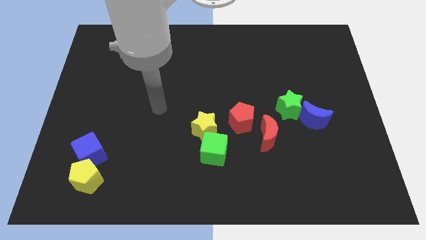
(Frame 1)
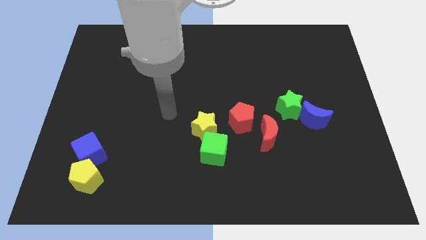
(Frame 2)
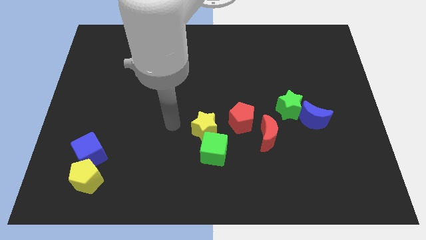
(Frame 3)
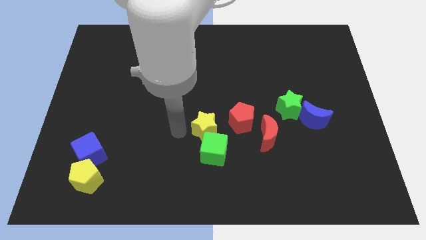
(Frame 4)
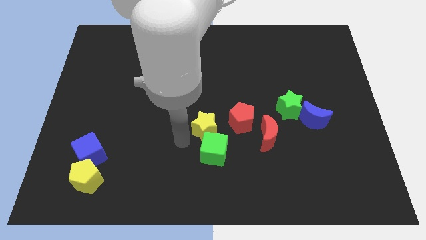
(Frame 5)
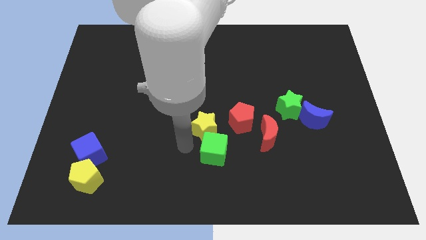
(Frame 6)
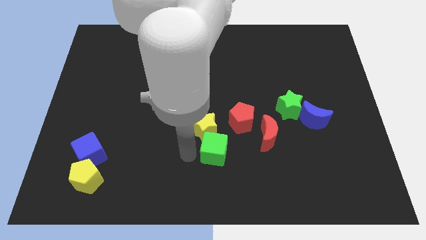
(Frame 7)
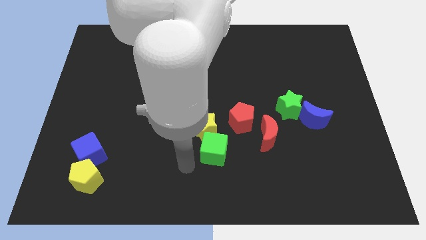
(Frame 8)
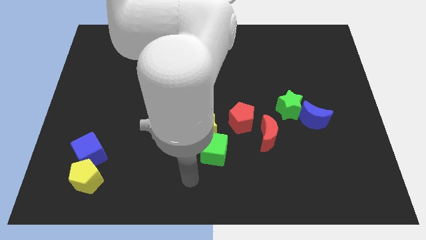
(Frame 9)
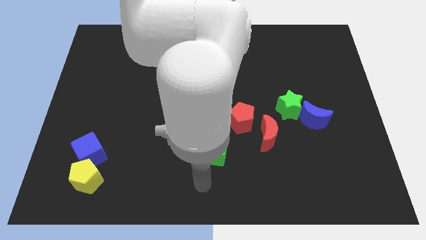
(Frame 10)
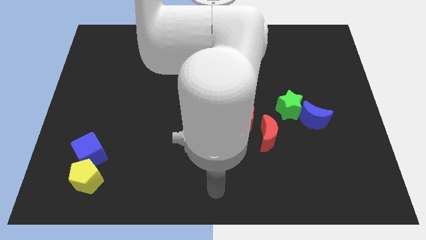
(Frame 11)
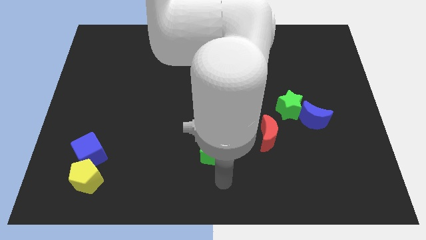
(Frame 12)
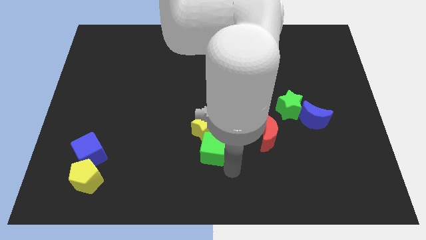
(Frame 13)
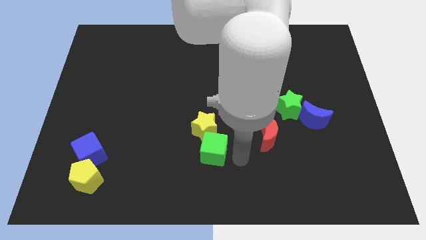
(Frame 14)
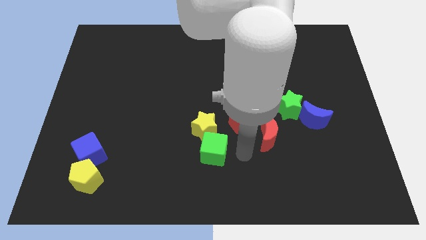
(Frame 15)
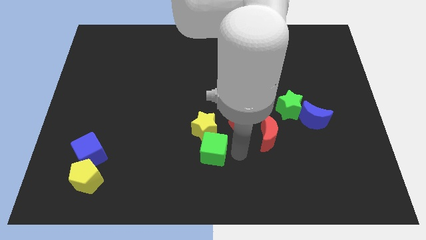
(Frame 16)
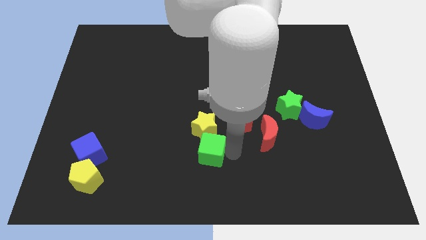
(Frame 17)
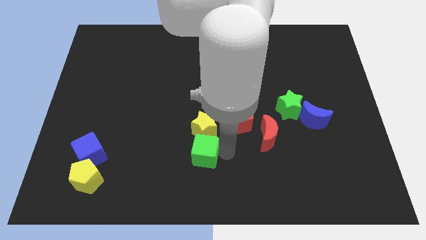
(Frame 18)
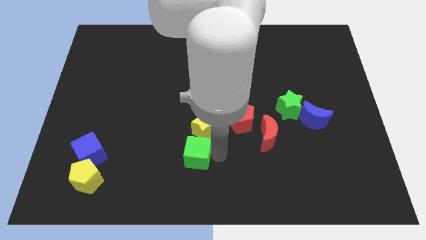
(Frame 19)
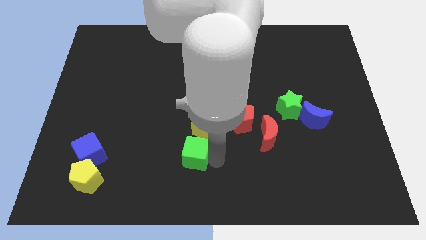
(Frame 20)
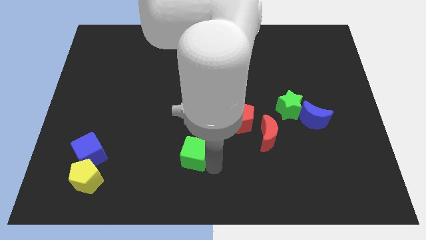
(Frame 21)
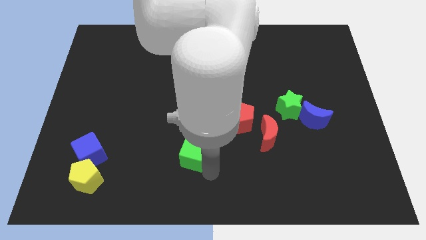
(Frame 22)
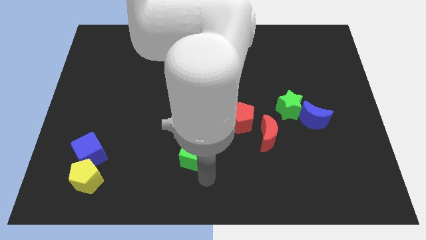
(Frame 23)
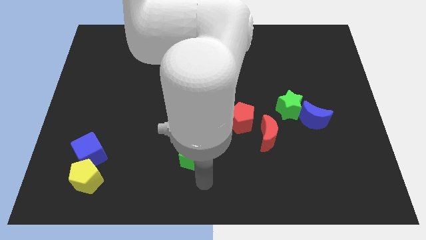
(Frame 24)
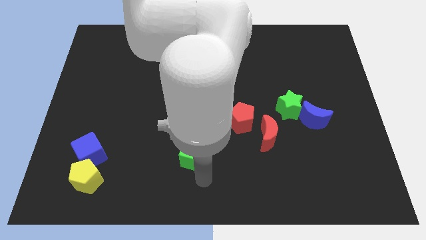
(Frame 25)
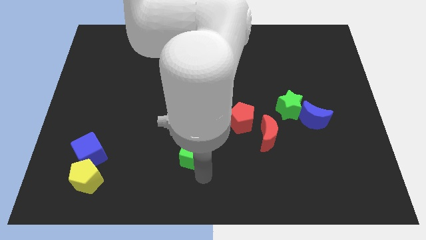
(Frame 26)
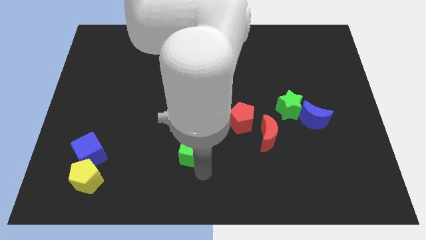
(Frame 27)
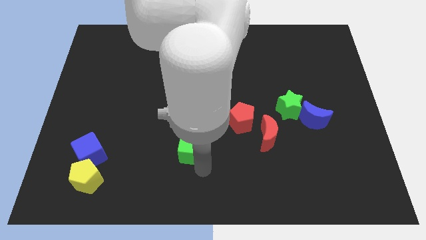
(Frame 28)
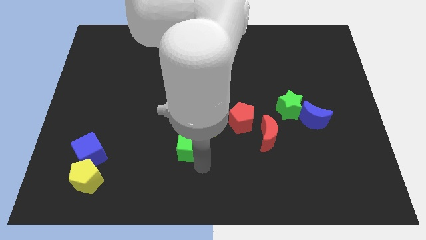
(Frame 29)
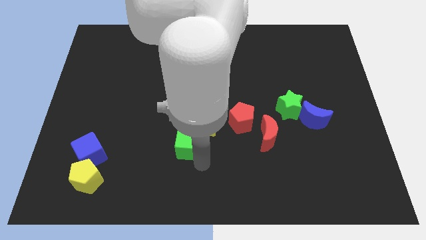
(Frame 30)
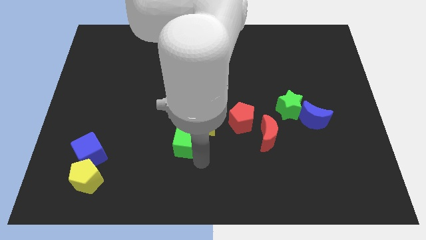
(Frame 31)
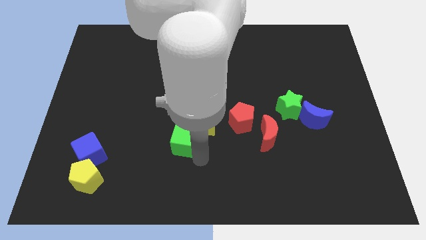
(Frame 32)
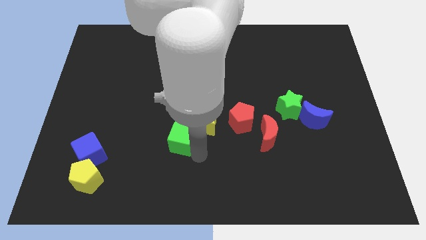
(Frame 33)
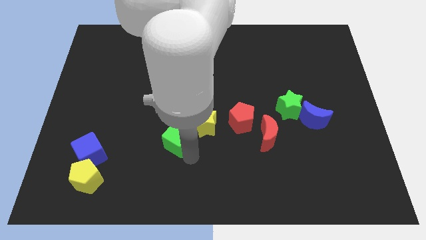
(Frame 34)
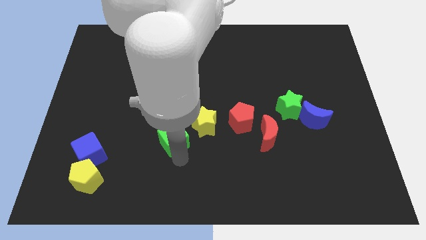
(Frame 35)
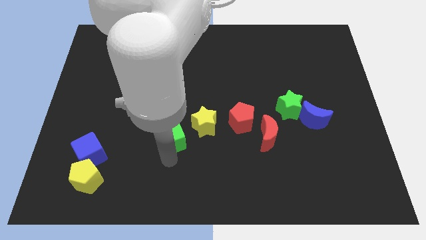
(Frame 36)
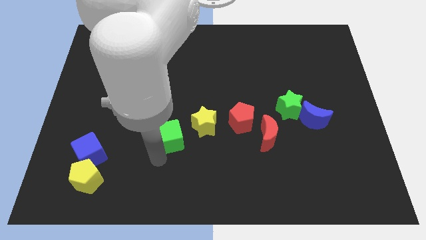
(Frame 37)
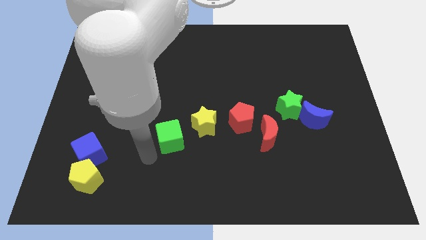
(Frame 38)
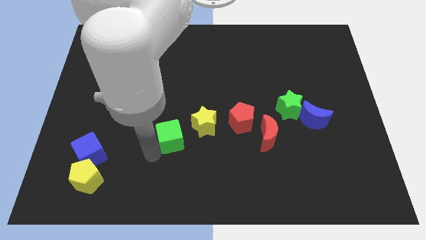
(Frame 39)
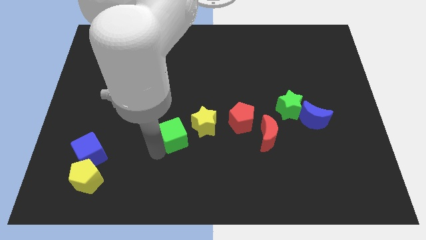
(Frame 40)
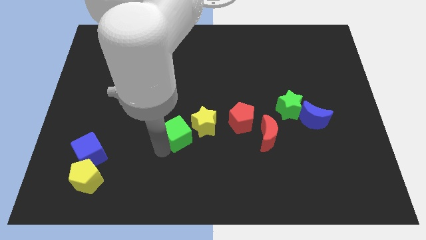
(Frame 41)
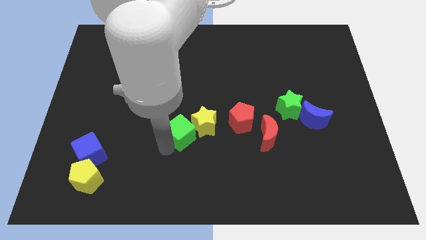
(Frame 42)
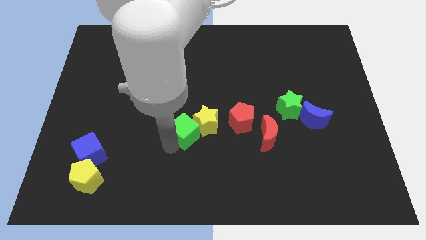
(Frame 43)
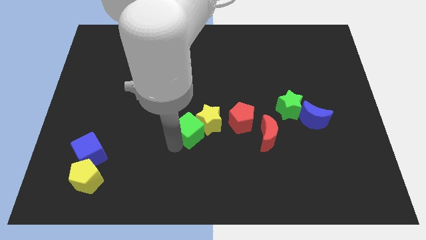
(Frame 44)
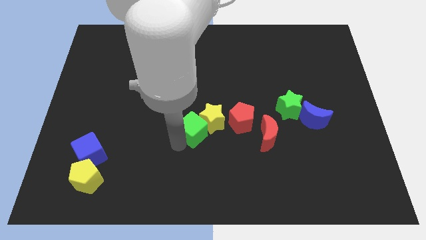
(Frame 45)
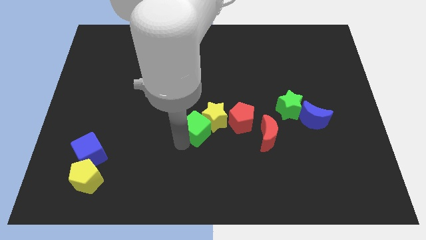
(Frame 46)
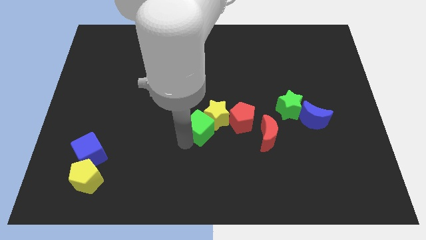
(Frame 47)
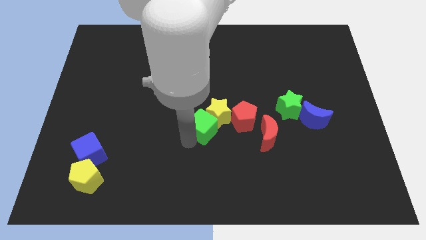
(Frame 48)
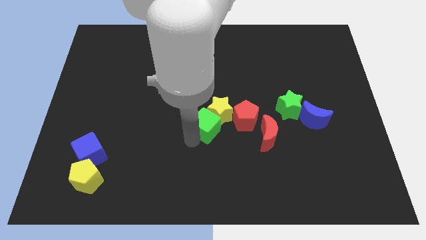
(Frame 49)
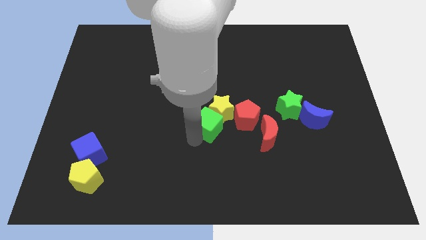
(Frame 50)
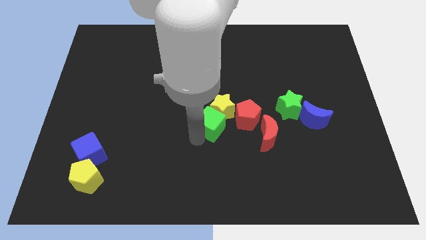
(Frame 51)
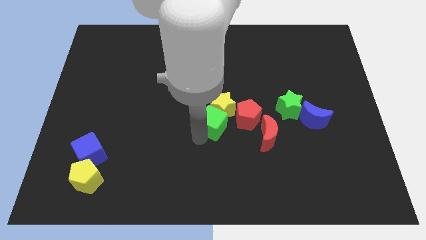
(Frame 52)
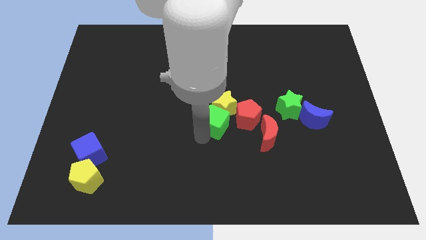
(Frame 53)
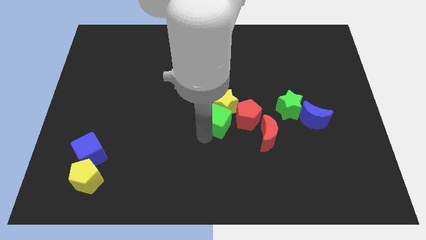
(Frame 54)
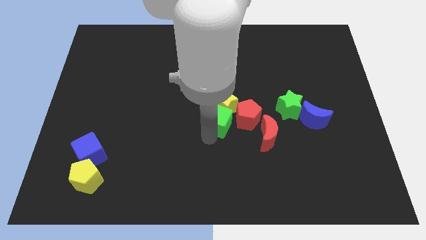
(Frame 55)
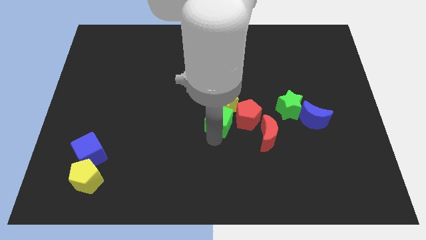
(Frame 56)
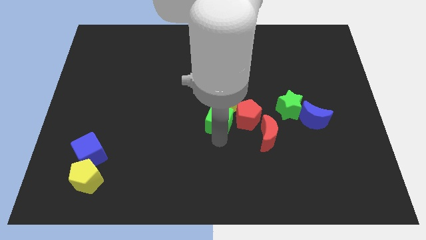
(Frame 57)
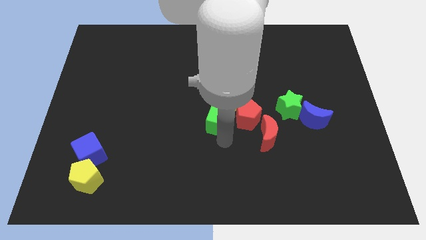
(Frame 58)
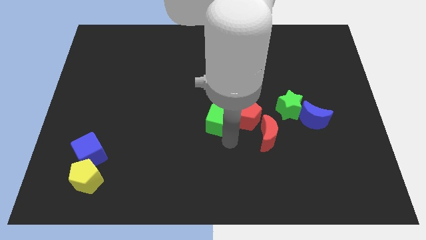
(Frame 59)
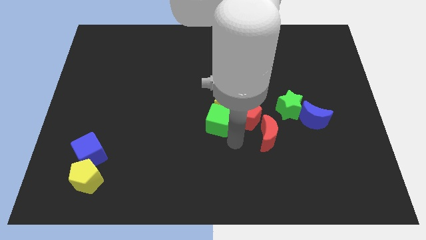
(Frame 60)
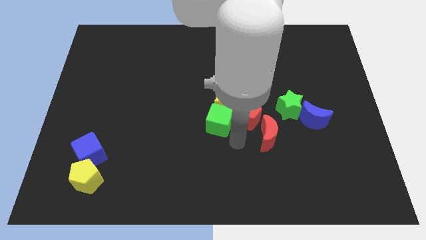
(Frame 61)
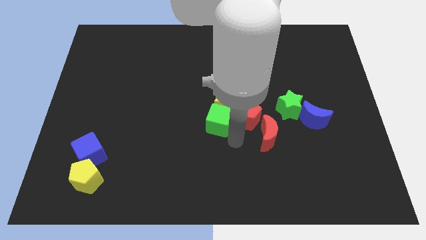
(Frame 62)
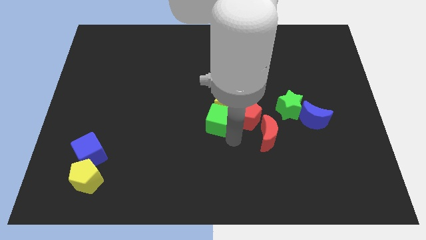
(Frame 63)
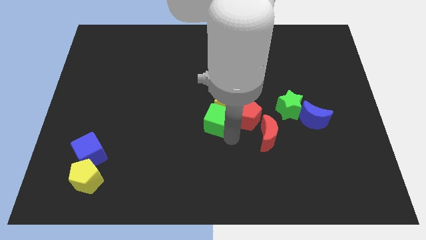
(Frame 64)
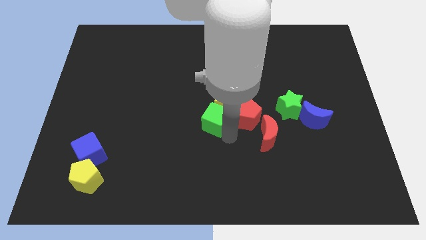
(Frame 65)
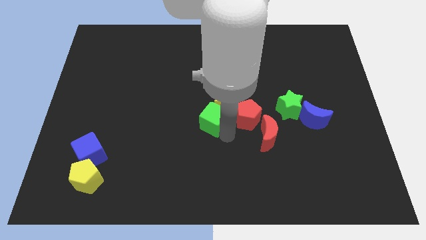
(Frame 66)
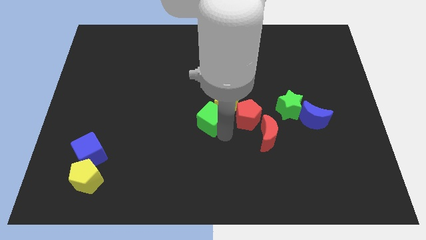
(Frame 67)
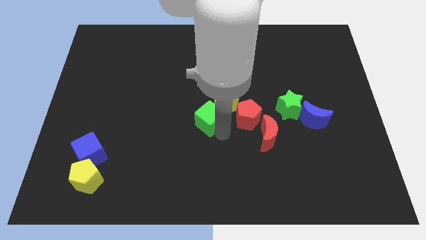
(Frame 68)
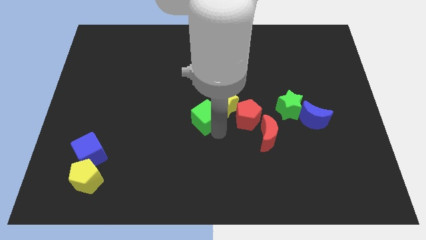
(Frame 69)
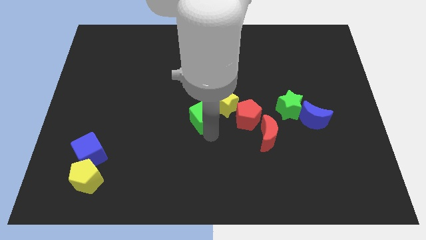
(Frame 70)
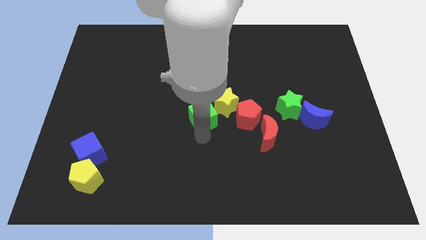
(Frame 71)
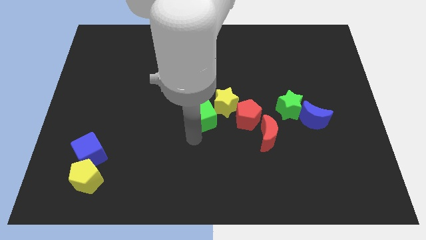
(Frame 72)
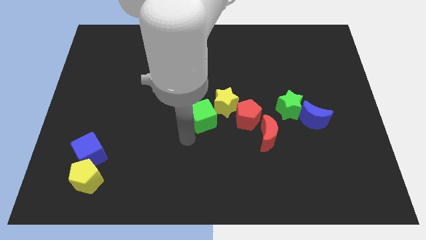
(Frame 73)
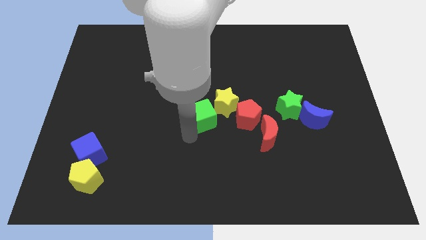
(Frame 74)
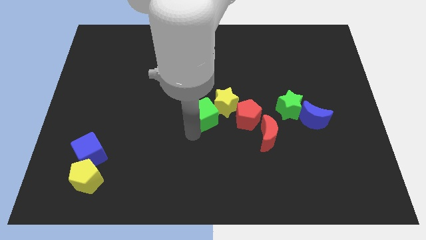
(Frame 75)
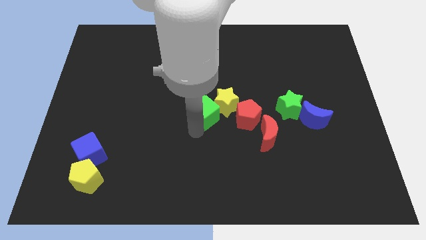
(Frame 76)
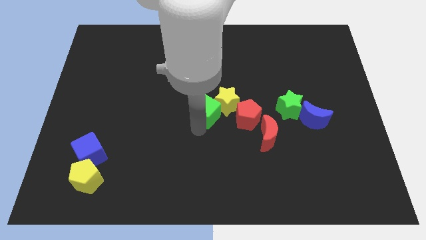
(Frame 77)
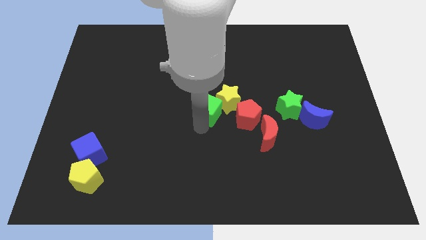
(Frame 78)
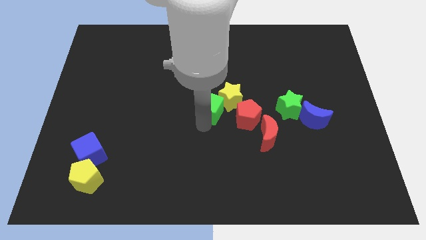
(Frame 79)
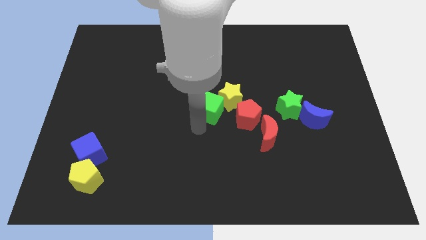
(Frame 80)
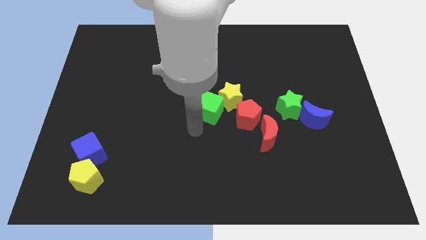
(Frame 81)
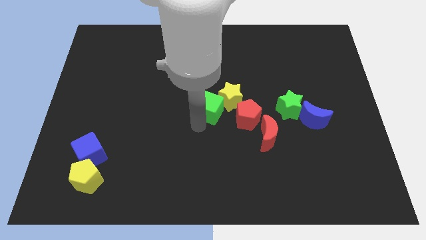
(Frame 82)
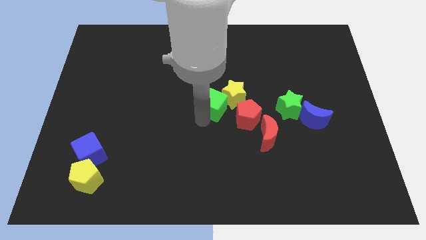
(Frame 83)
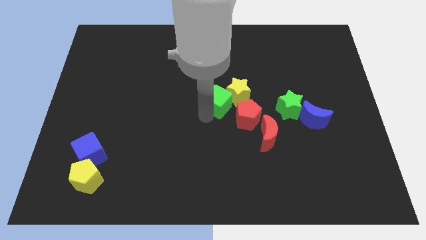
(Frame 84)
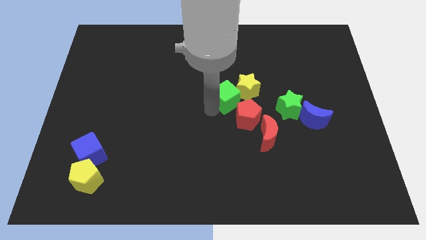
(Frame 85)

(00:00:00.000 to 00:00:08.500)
move the green cube to the top of the red pentagon
